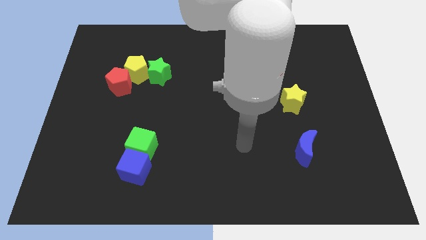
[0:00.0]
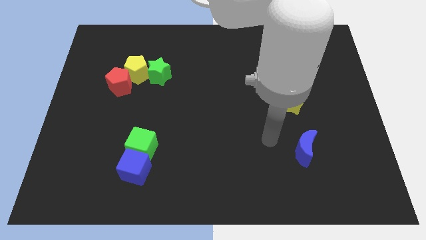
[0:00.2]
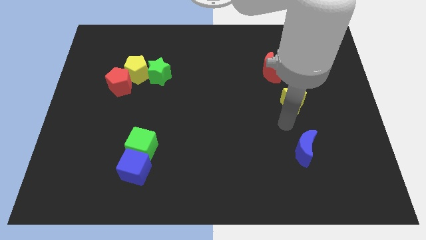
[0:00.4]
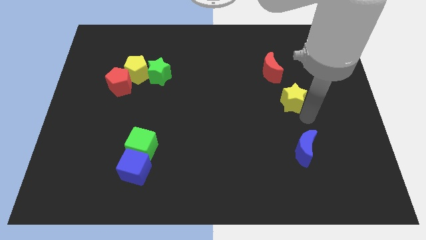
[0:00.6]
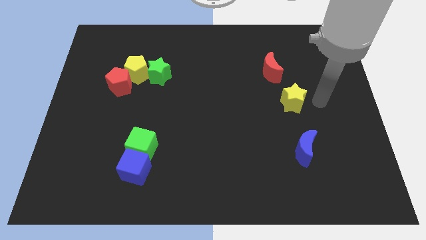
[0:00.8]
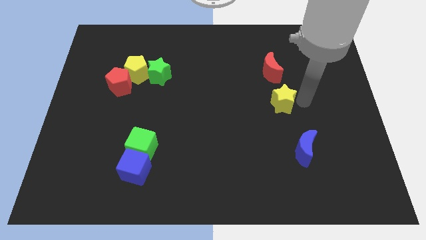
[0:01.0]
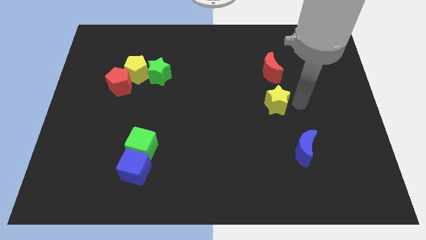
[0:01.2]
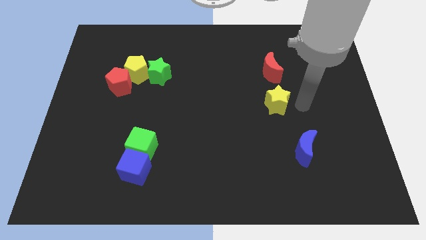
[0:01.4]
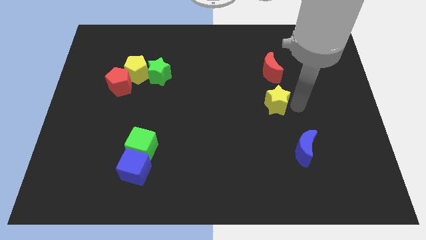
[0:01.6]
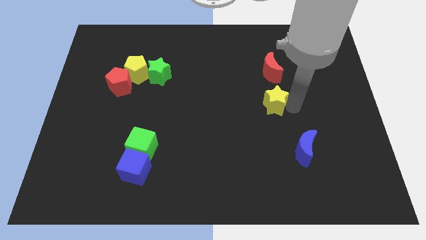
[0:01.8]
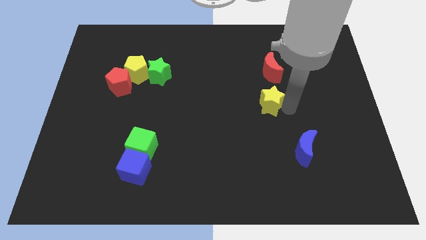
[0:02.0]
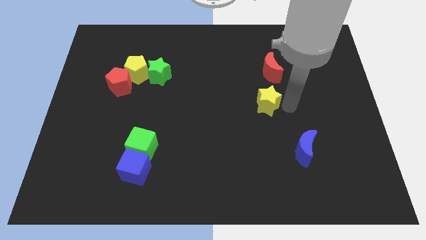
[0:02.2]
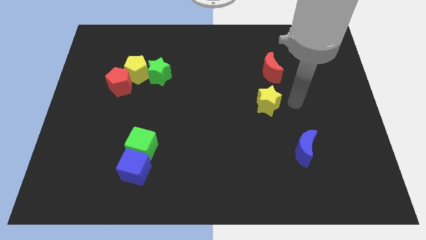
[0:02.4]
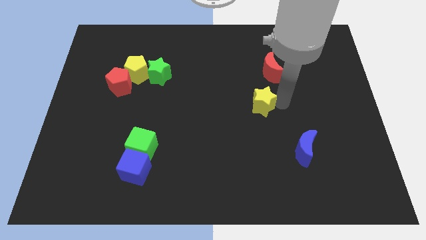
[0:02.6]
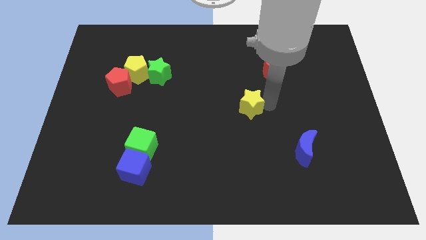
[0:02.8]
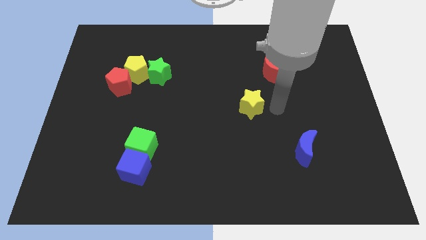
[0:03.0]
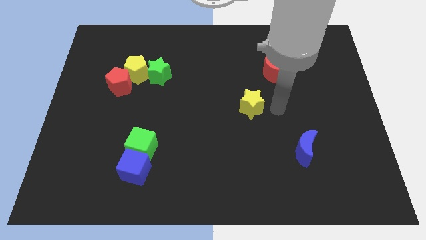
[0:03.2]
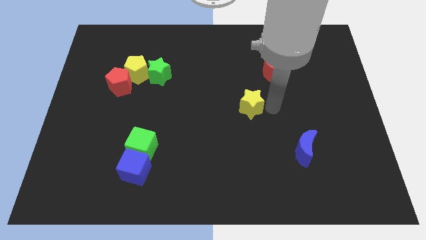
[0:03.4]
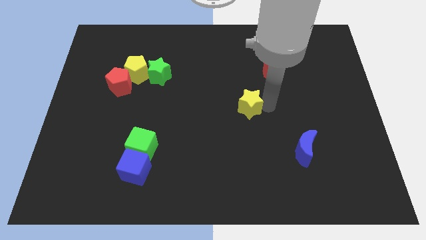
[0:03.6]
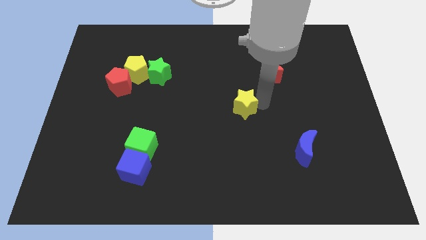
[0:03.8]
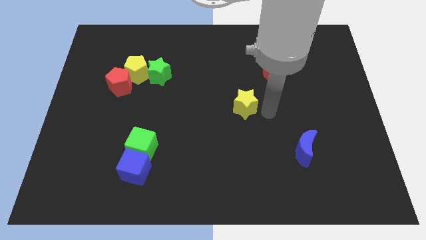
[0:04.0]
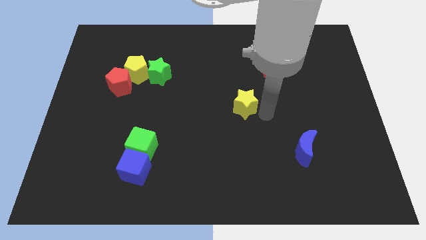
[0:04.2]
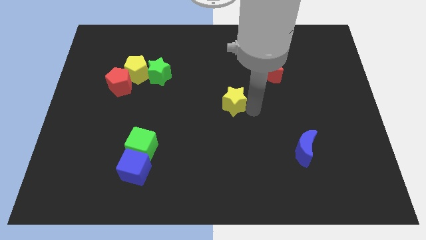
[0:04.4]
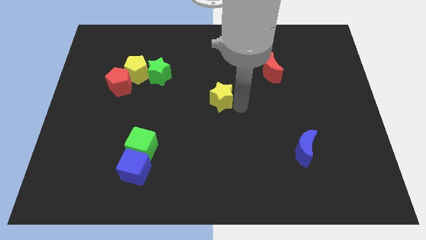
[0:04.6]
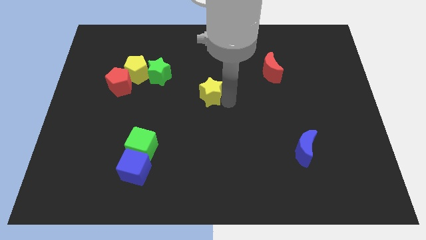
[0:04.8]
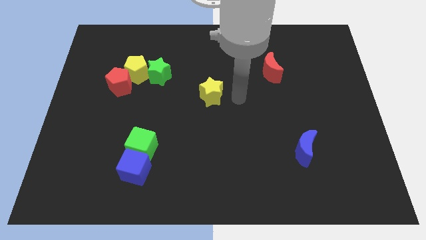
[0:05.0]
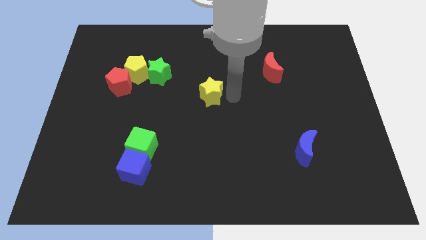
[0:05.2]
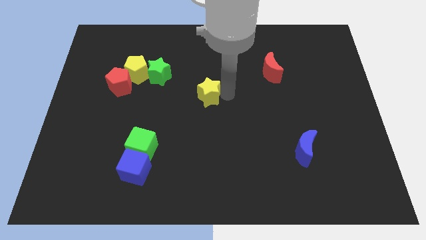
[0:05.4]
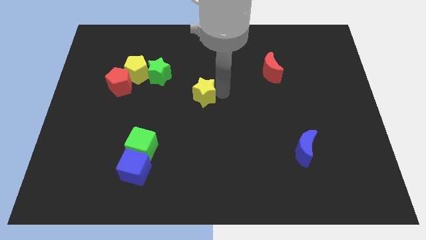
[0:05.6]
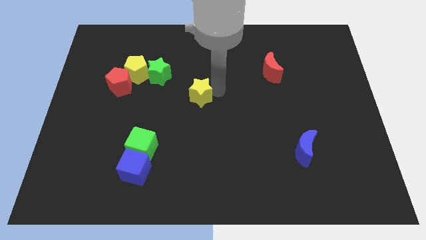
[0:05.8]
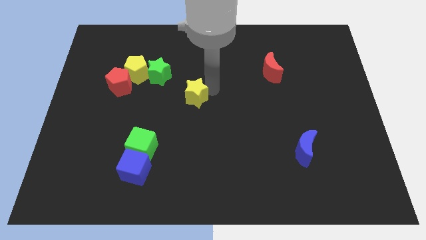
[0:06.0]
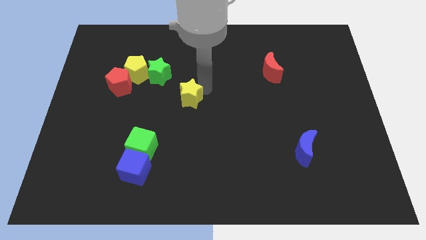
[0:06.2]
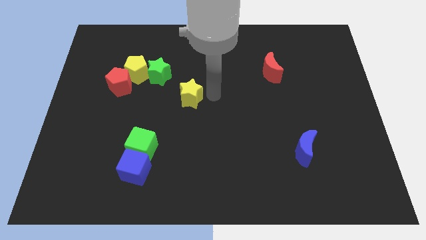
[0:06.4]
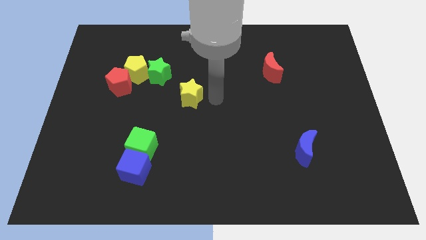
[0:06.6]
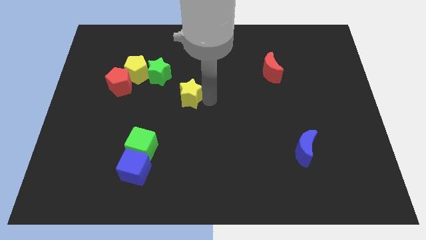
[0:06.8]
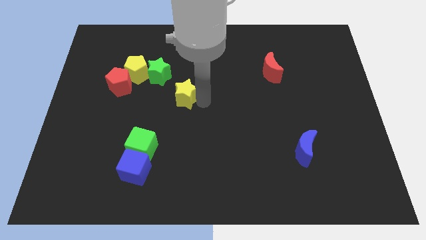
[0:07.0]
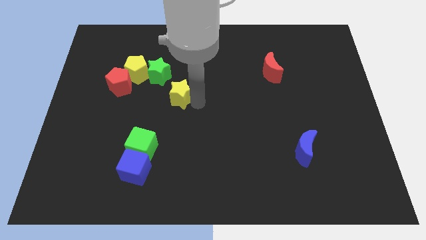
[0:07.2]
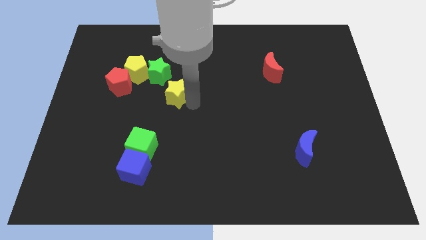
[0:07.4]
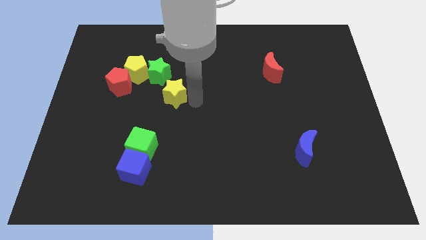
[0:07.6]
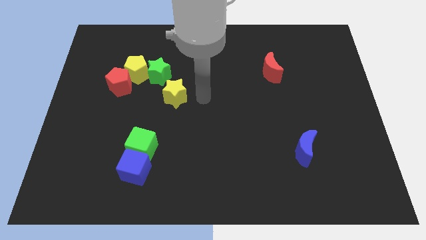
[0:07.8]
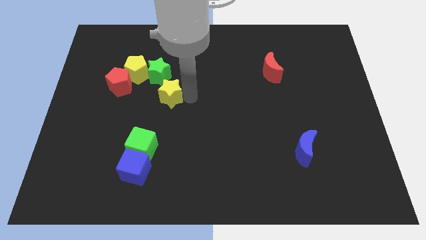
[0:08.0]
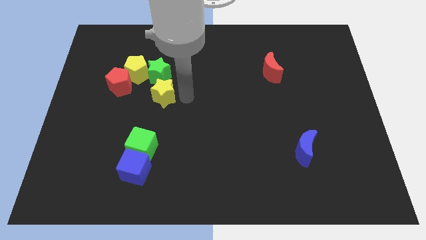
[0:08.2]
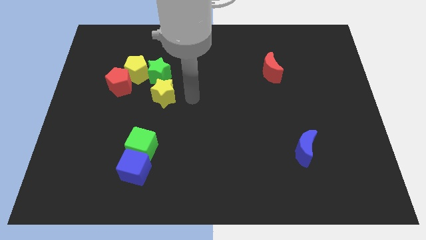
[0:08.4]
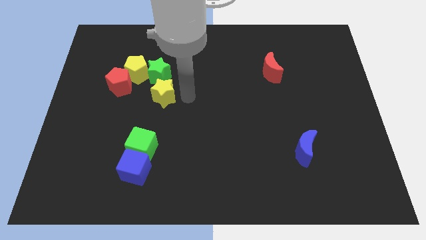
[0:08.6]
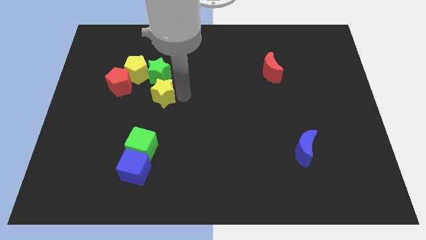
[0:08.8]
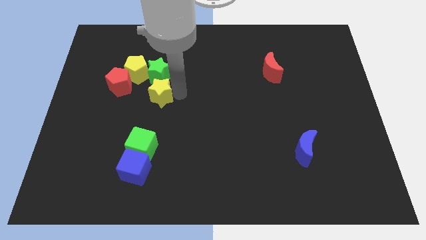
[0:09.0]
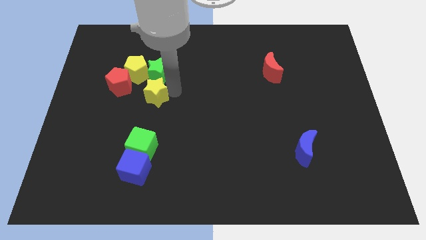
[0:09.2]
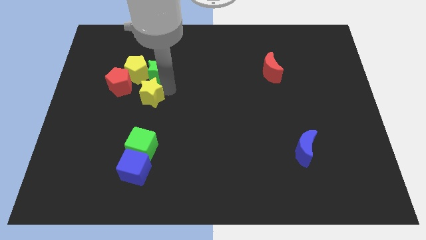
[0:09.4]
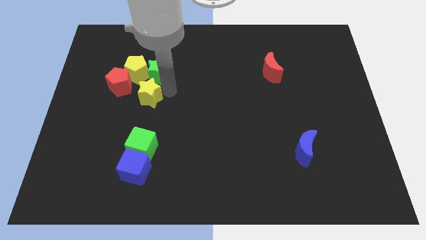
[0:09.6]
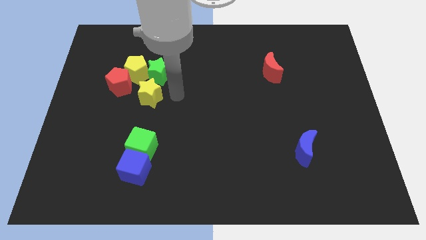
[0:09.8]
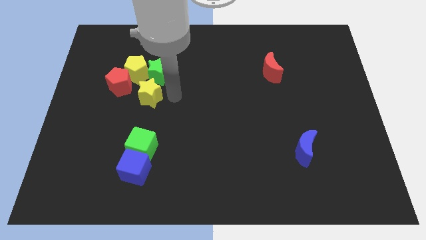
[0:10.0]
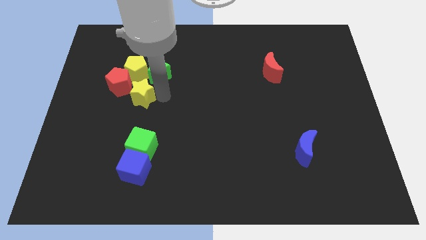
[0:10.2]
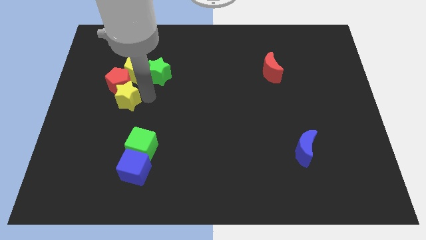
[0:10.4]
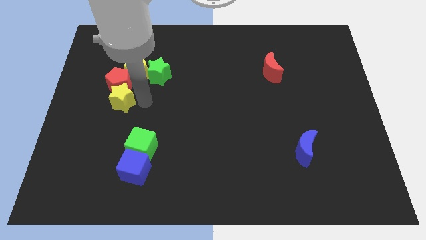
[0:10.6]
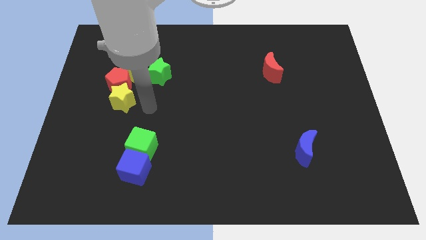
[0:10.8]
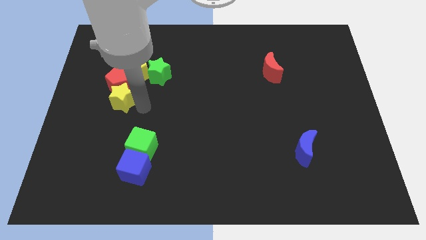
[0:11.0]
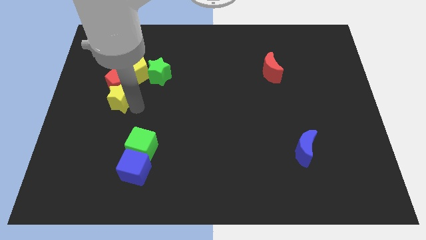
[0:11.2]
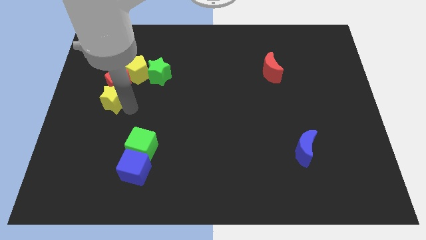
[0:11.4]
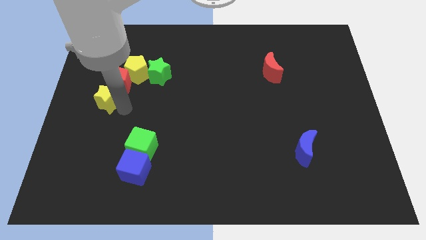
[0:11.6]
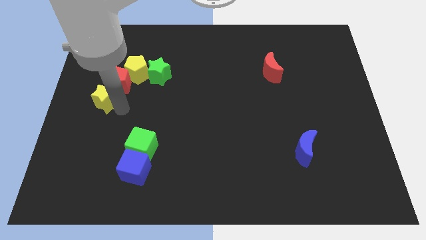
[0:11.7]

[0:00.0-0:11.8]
put the yellow star to the center left

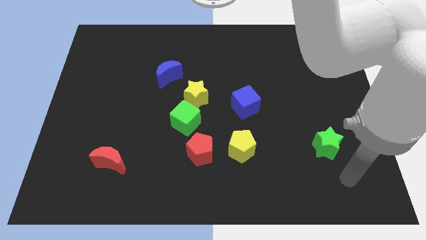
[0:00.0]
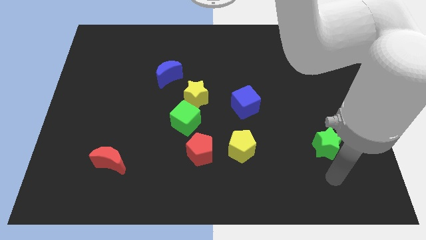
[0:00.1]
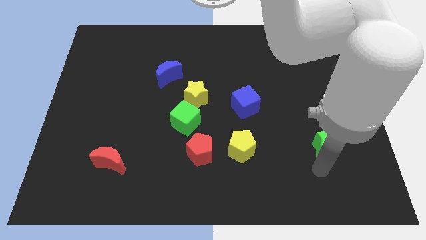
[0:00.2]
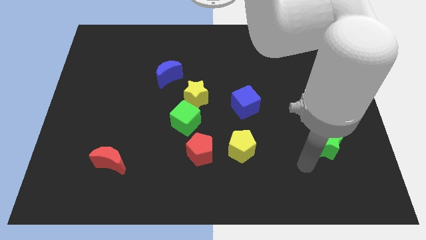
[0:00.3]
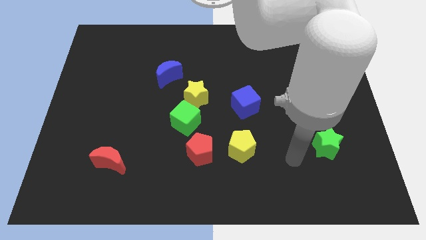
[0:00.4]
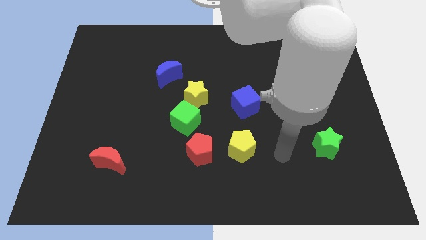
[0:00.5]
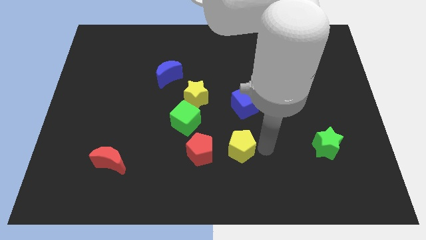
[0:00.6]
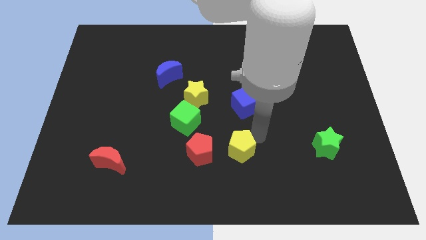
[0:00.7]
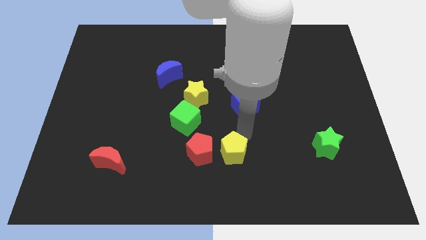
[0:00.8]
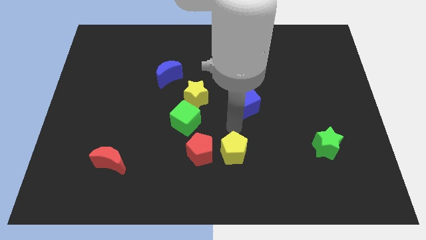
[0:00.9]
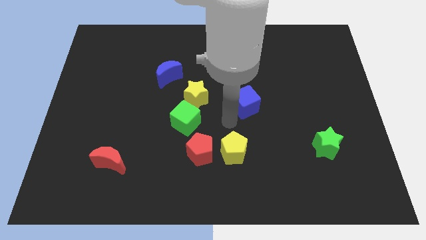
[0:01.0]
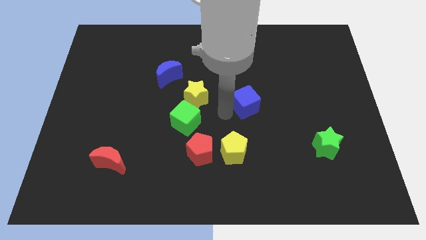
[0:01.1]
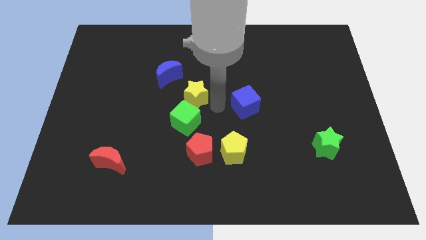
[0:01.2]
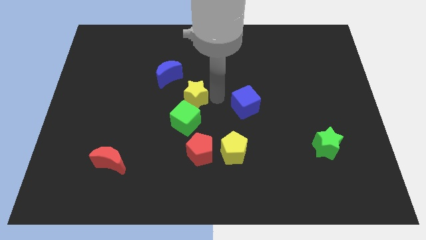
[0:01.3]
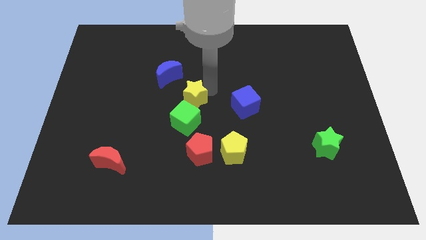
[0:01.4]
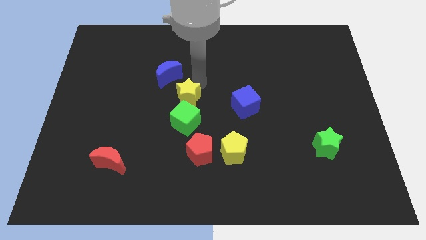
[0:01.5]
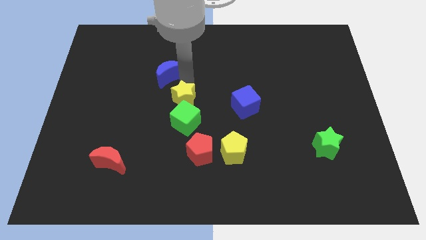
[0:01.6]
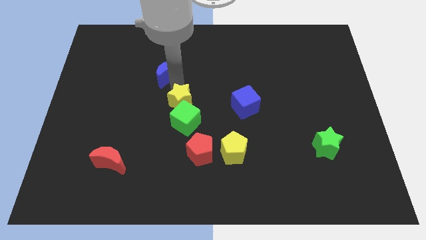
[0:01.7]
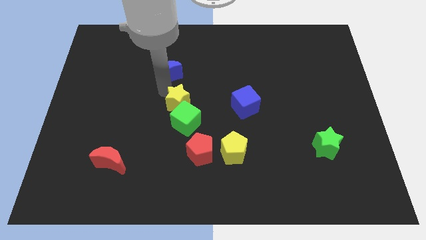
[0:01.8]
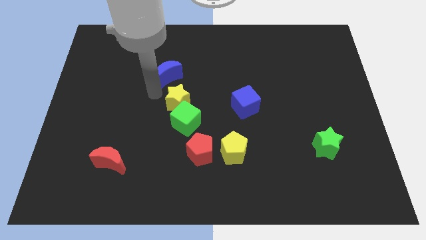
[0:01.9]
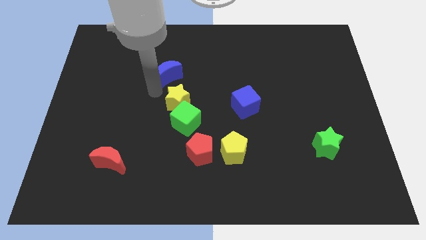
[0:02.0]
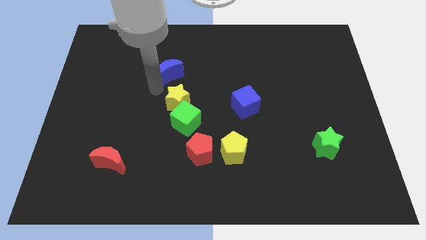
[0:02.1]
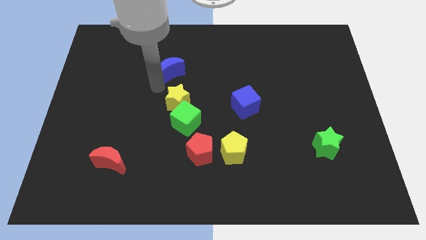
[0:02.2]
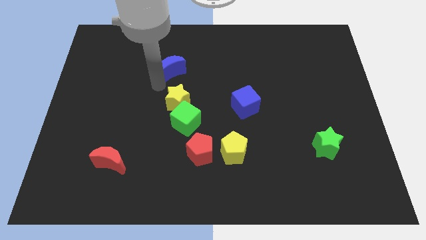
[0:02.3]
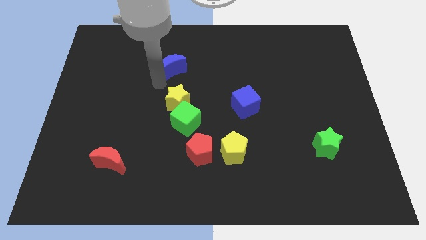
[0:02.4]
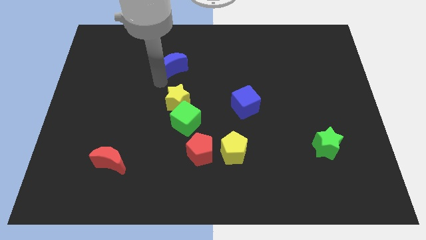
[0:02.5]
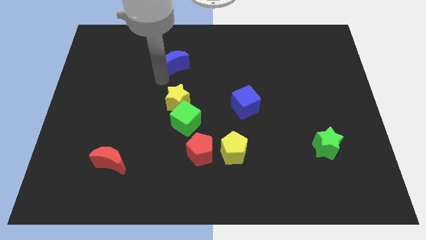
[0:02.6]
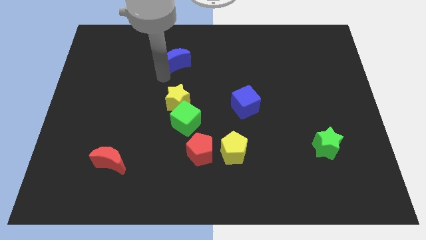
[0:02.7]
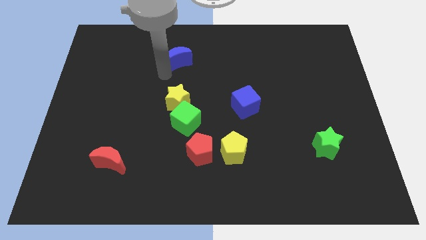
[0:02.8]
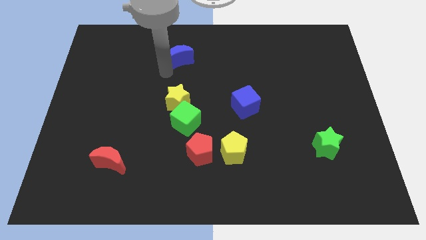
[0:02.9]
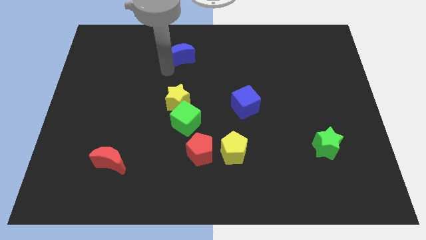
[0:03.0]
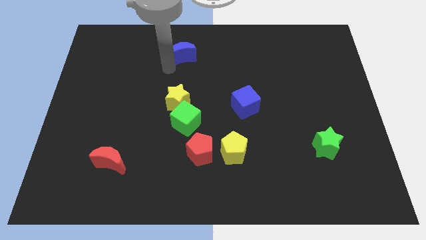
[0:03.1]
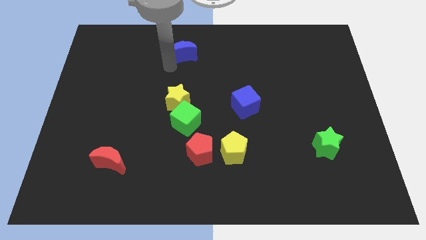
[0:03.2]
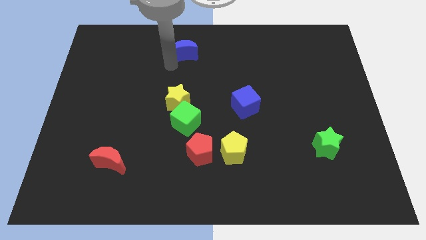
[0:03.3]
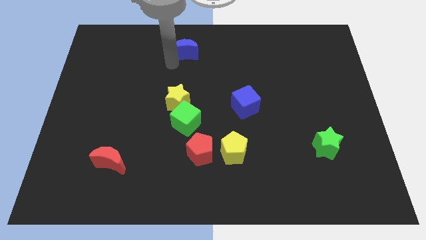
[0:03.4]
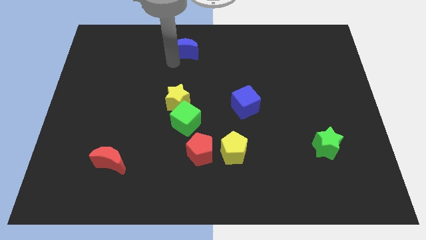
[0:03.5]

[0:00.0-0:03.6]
push the blue moon to the top side
